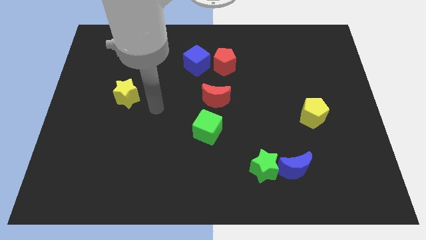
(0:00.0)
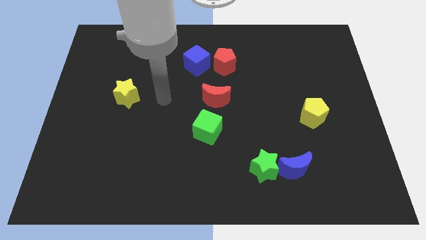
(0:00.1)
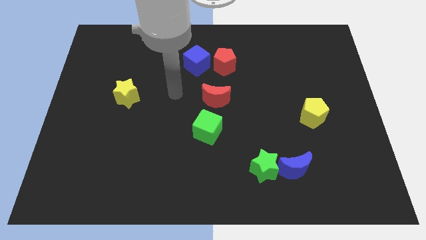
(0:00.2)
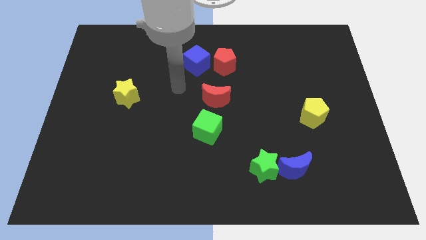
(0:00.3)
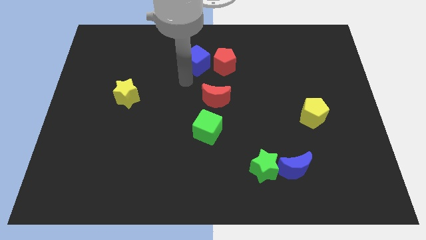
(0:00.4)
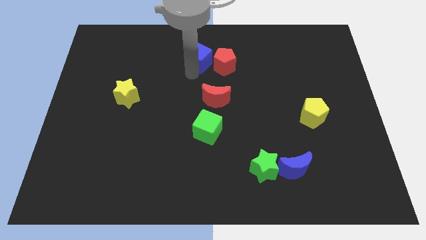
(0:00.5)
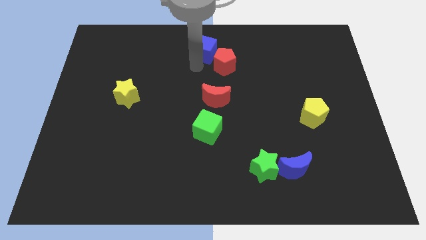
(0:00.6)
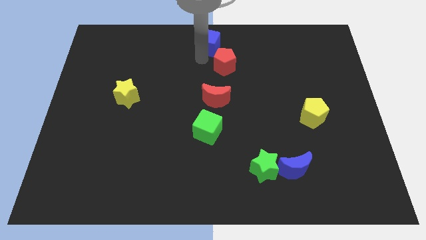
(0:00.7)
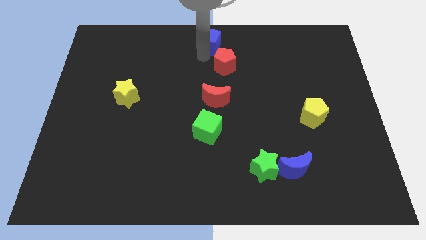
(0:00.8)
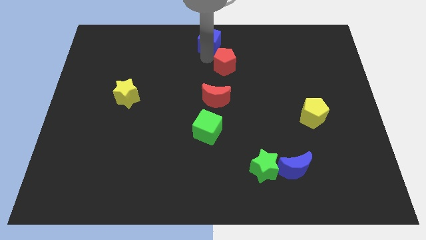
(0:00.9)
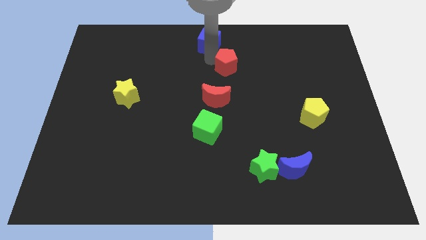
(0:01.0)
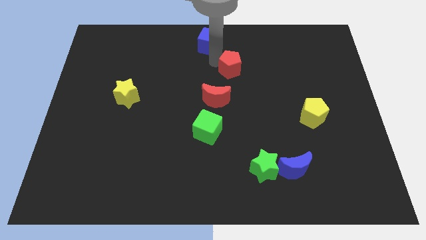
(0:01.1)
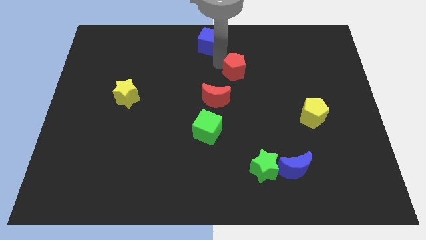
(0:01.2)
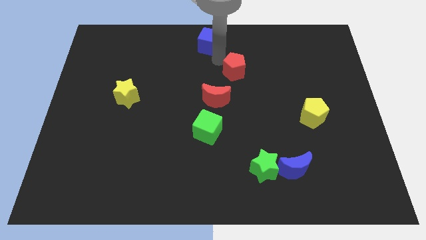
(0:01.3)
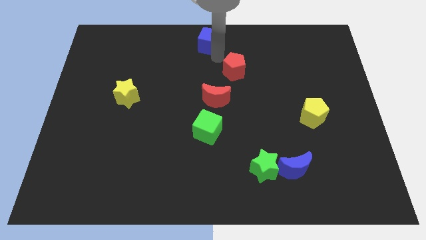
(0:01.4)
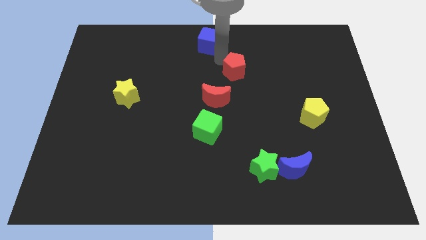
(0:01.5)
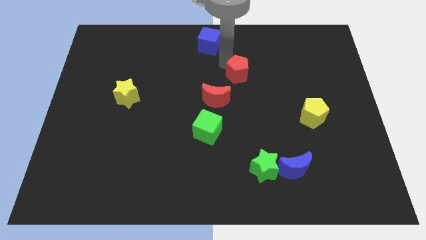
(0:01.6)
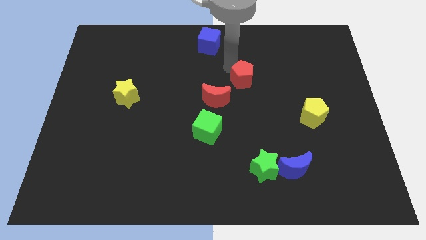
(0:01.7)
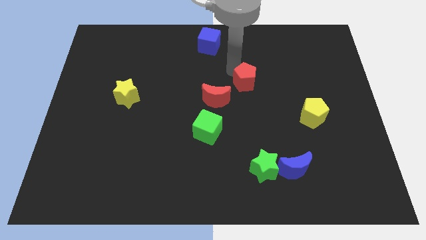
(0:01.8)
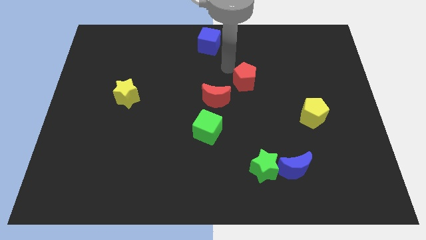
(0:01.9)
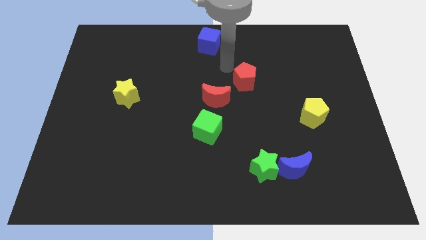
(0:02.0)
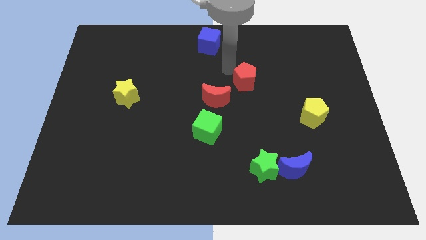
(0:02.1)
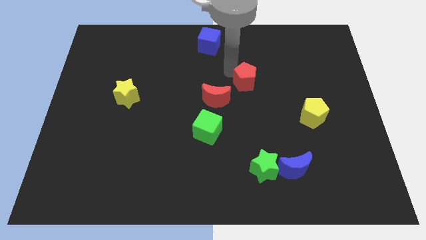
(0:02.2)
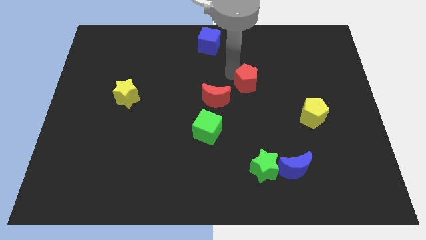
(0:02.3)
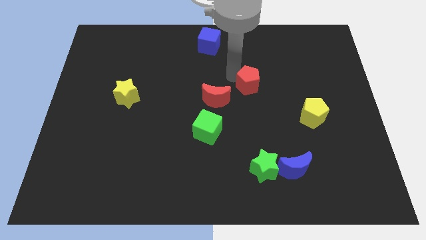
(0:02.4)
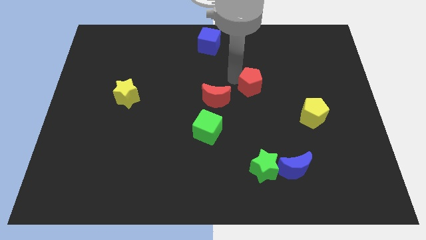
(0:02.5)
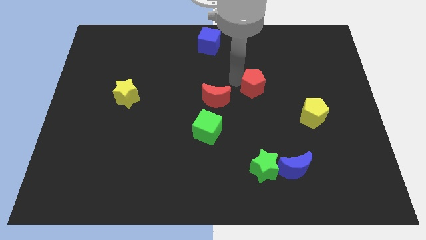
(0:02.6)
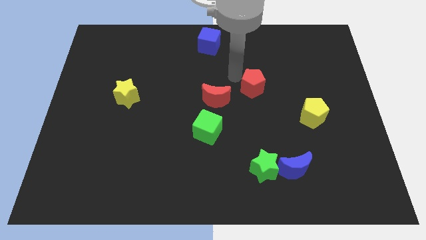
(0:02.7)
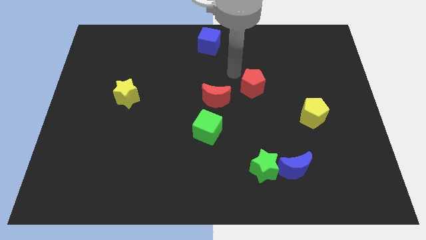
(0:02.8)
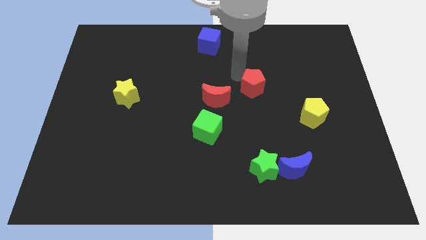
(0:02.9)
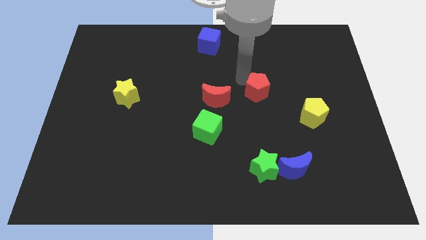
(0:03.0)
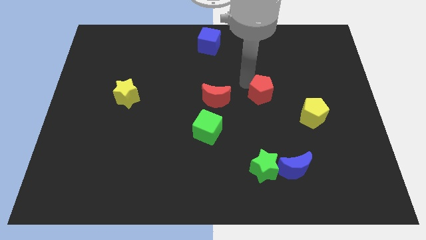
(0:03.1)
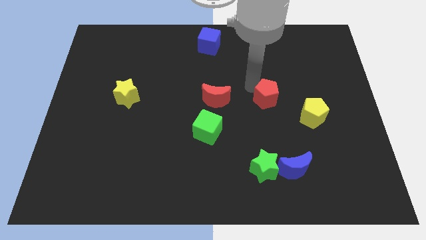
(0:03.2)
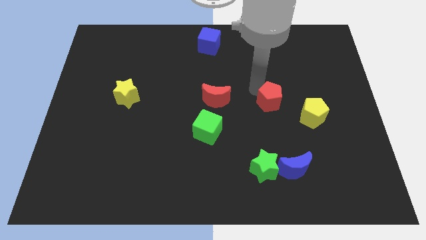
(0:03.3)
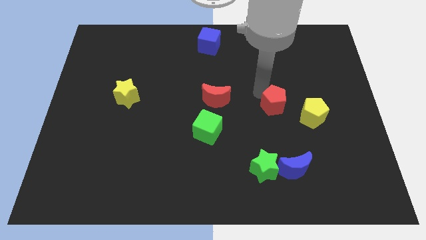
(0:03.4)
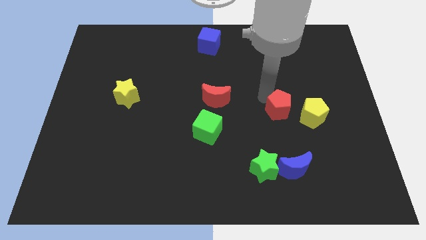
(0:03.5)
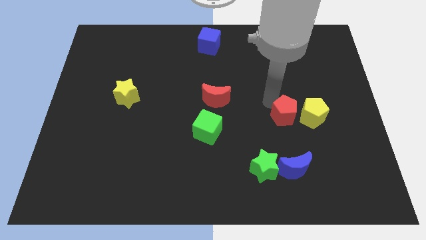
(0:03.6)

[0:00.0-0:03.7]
slide the red pentagon downwards and to the right diagonally

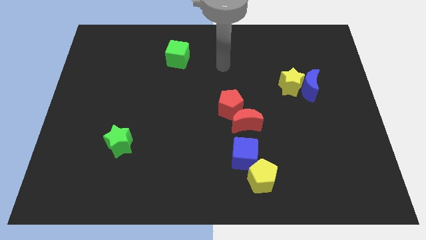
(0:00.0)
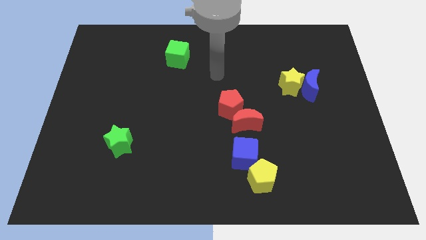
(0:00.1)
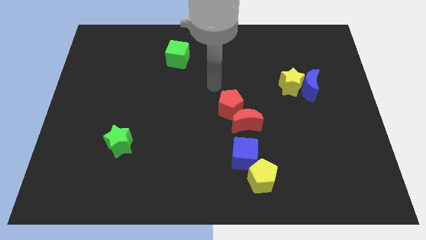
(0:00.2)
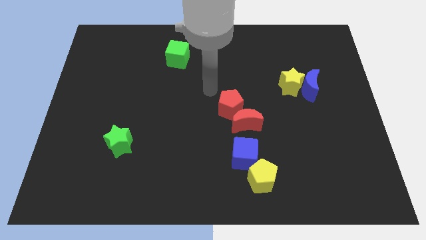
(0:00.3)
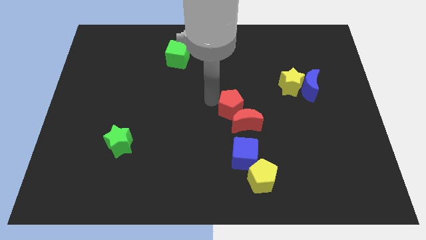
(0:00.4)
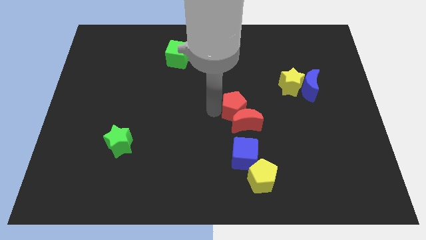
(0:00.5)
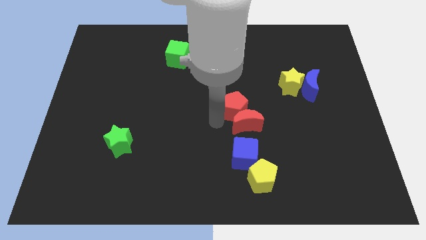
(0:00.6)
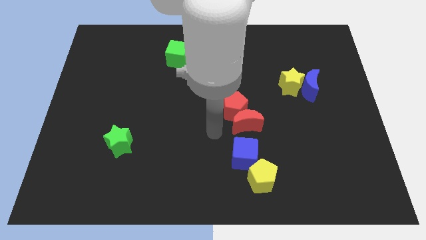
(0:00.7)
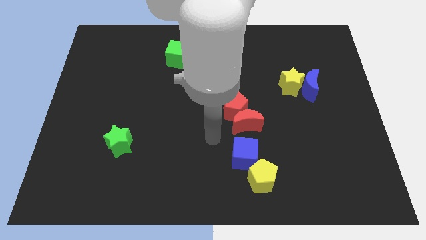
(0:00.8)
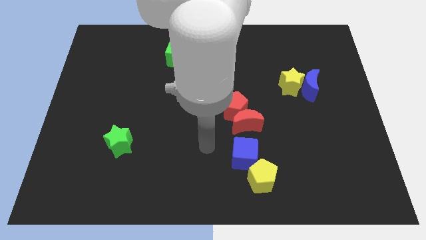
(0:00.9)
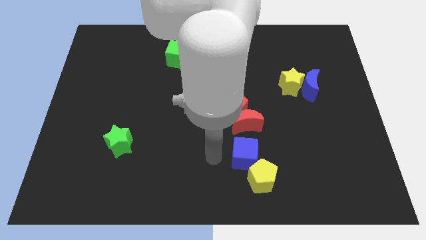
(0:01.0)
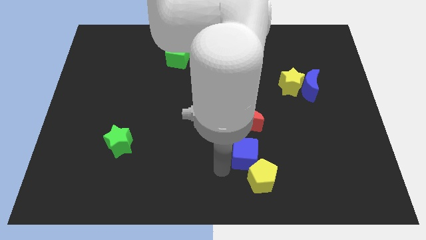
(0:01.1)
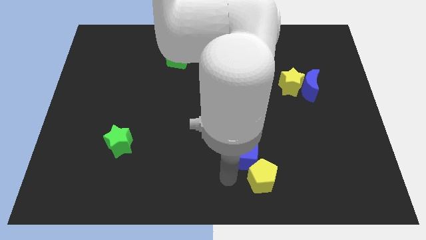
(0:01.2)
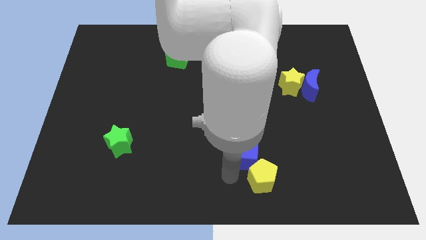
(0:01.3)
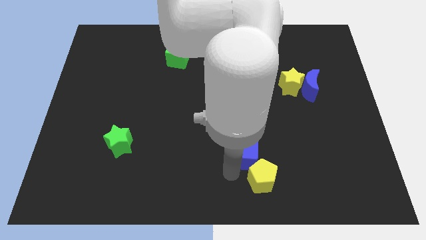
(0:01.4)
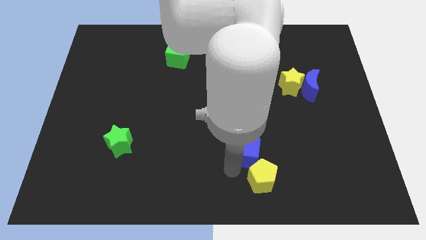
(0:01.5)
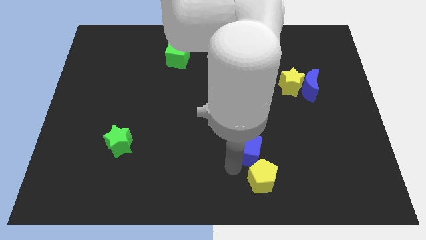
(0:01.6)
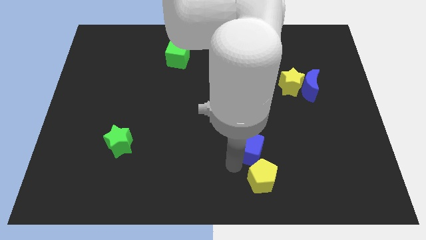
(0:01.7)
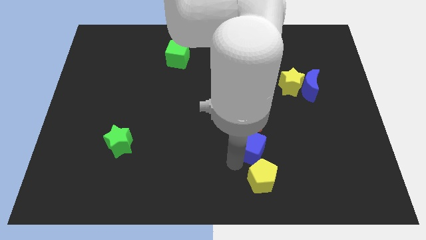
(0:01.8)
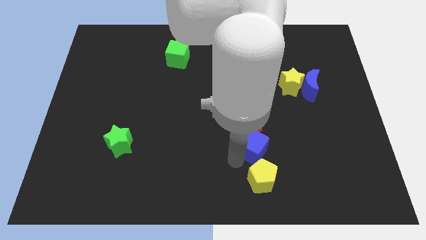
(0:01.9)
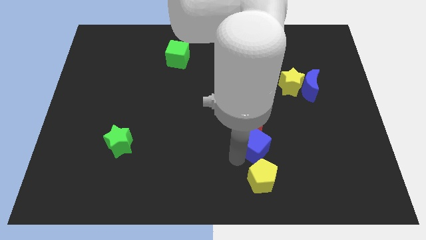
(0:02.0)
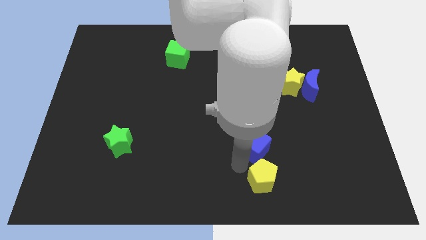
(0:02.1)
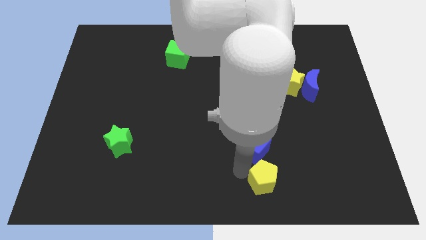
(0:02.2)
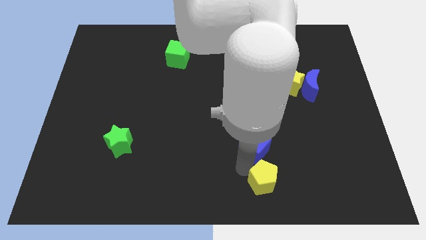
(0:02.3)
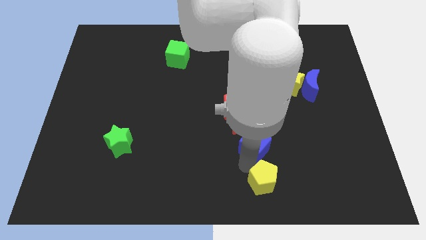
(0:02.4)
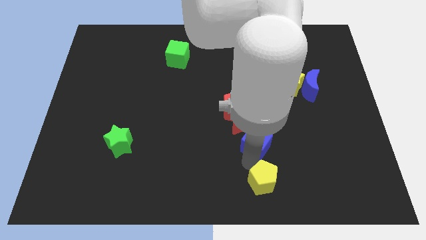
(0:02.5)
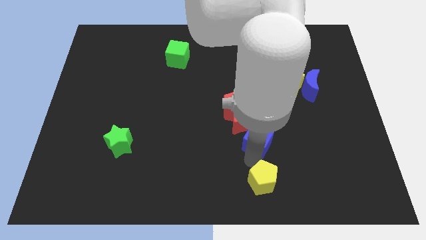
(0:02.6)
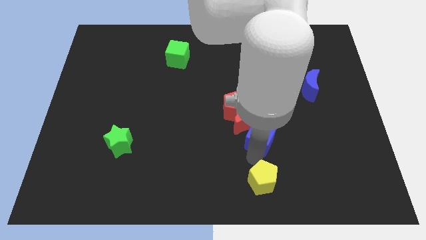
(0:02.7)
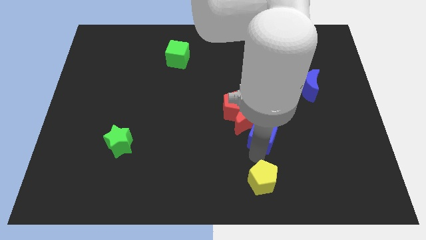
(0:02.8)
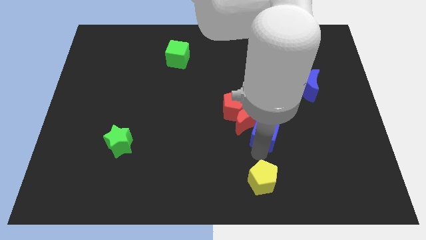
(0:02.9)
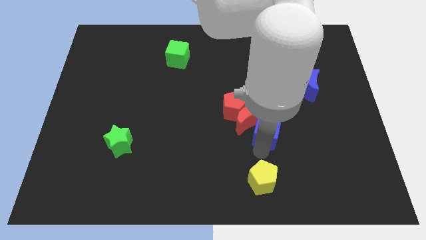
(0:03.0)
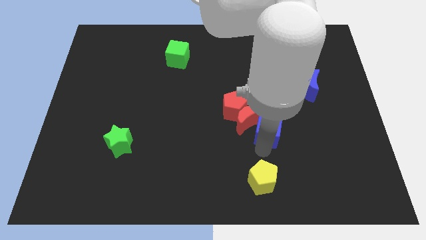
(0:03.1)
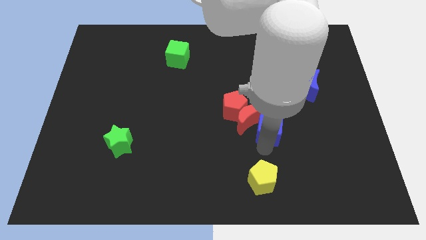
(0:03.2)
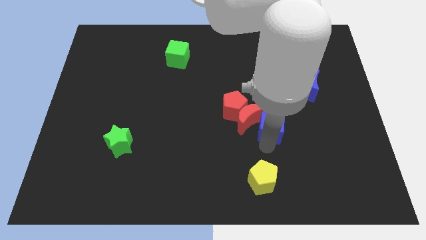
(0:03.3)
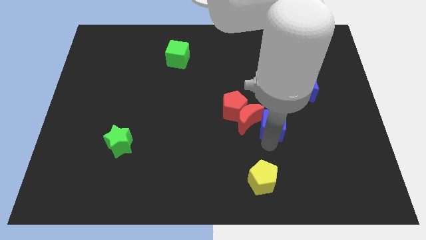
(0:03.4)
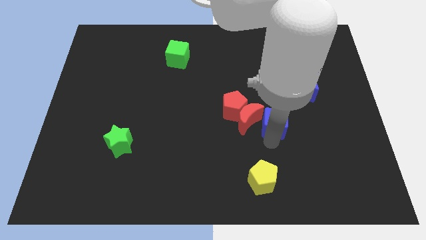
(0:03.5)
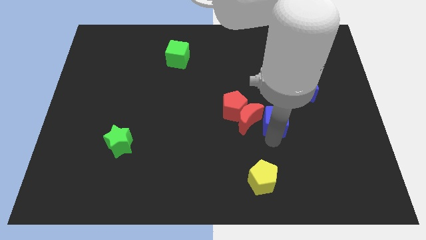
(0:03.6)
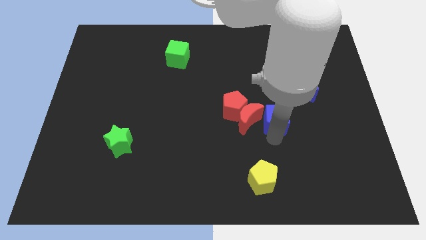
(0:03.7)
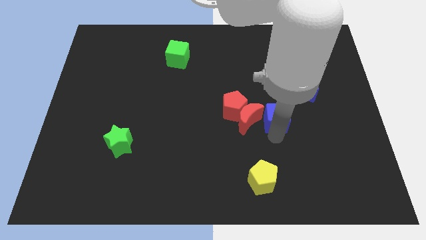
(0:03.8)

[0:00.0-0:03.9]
push the blue cube a little bit up

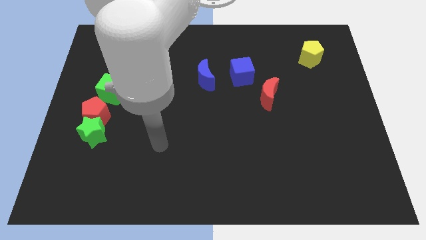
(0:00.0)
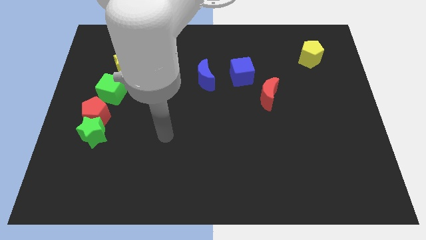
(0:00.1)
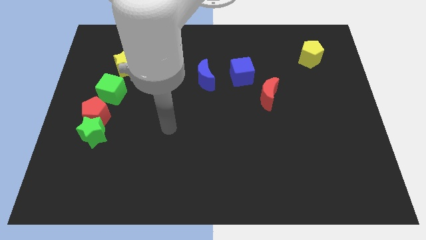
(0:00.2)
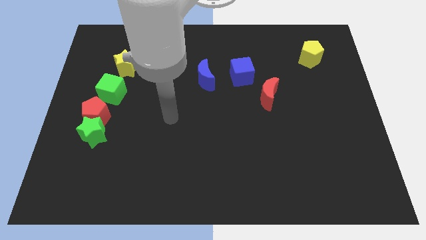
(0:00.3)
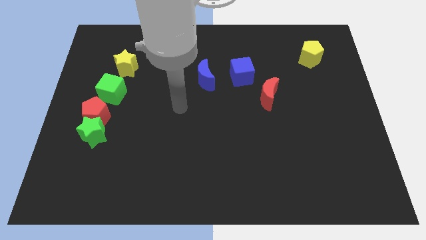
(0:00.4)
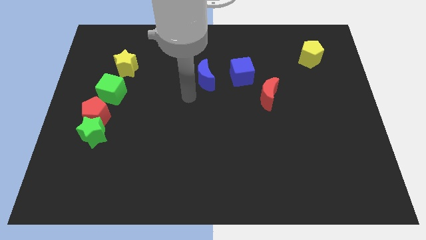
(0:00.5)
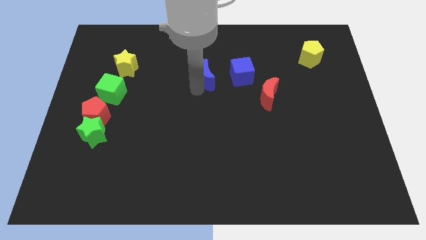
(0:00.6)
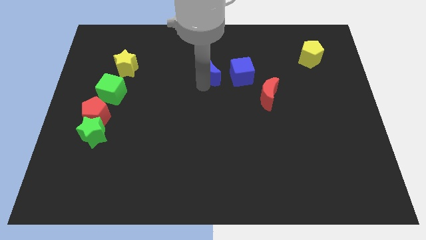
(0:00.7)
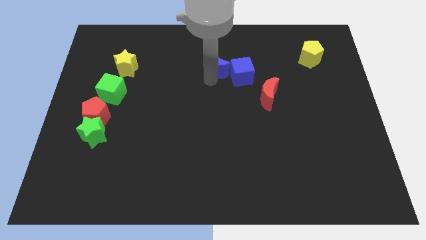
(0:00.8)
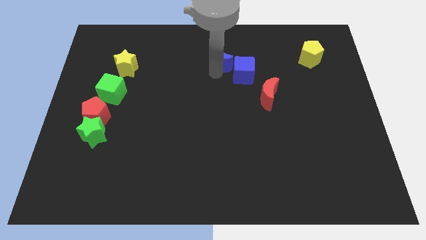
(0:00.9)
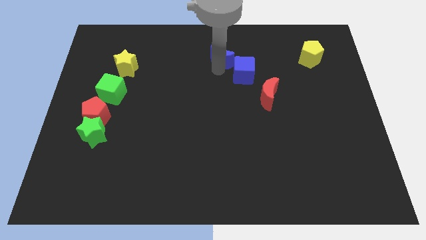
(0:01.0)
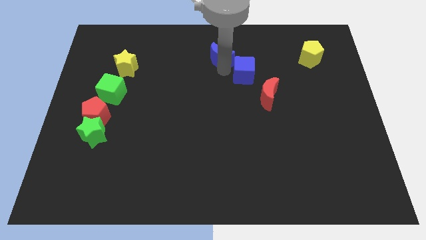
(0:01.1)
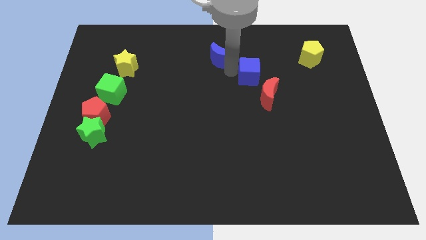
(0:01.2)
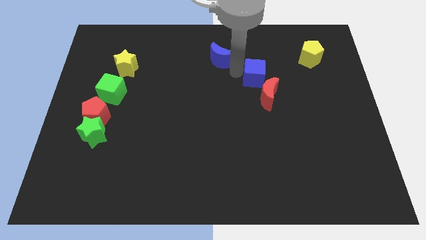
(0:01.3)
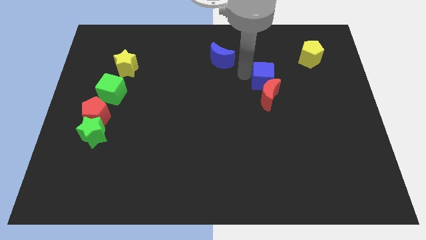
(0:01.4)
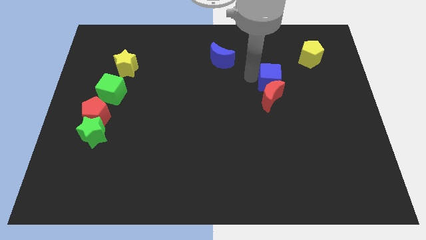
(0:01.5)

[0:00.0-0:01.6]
slightly move the blue cube to the right
